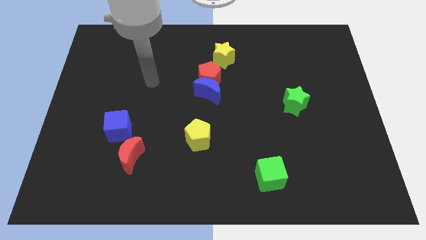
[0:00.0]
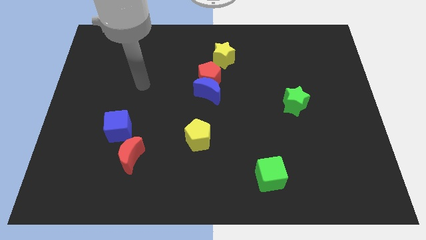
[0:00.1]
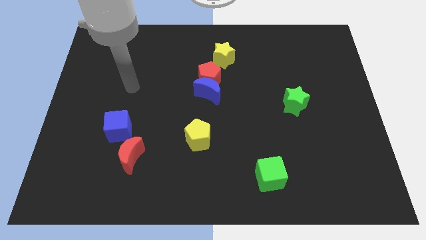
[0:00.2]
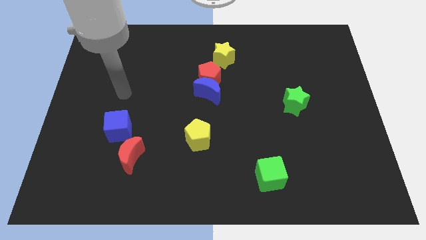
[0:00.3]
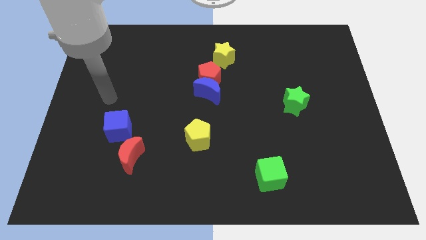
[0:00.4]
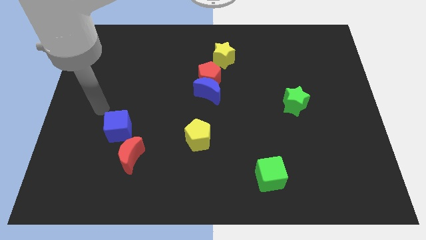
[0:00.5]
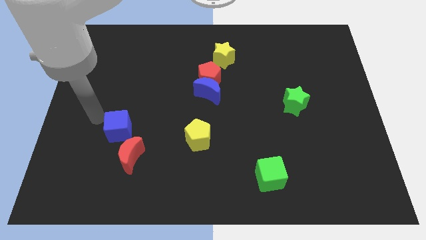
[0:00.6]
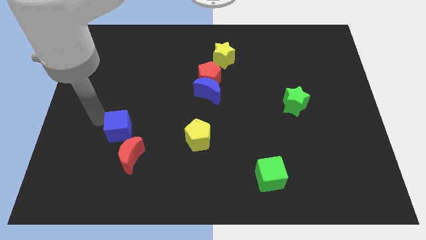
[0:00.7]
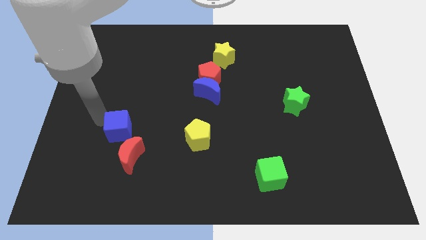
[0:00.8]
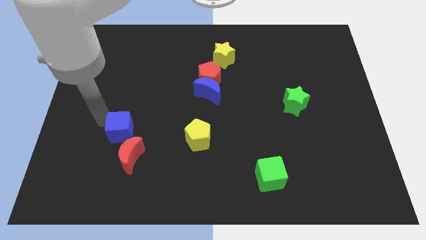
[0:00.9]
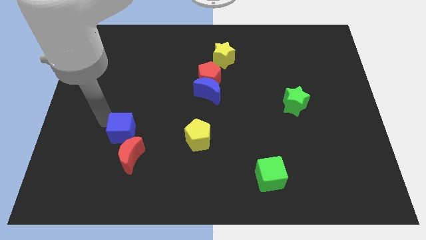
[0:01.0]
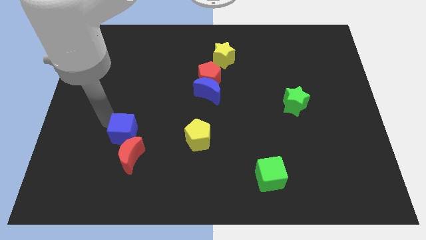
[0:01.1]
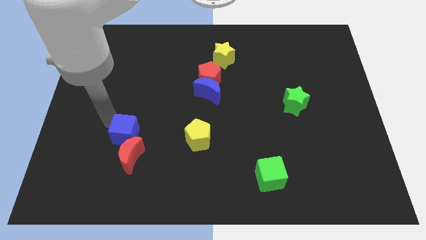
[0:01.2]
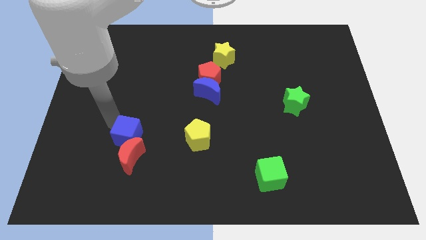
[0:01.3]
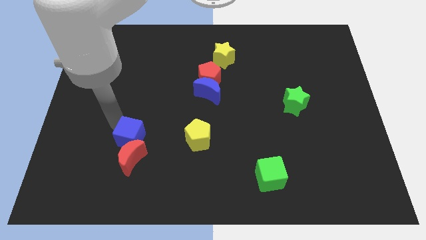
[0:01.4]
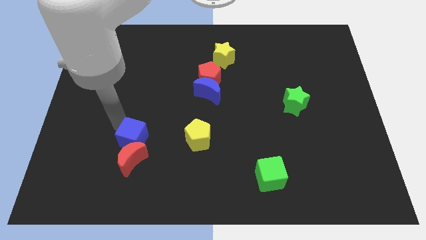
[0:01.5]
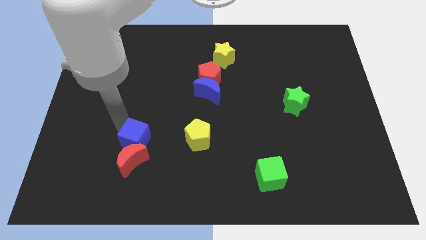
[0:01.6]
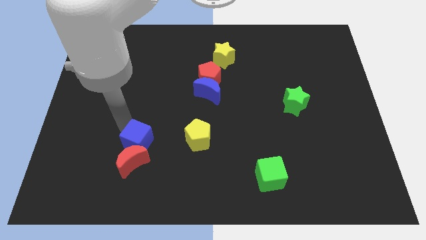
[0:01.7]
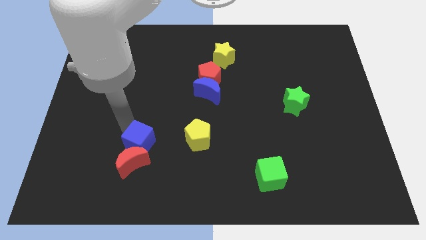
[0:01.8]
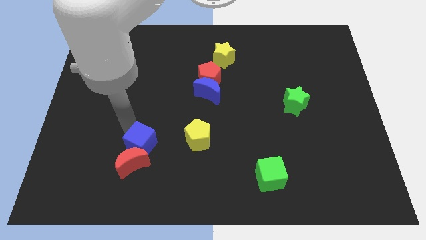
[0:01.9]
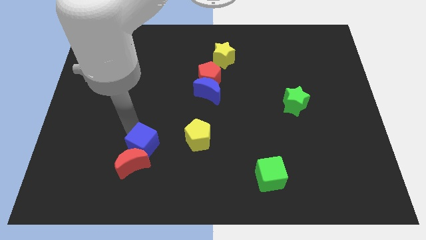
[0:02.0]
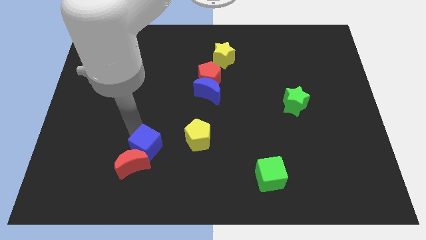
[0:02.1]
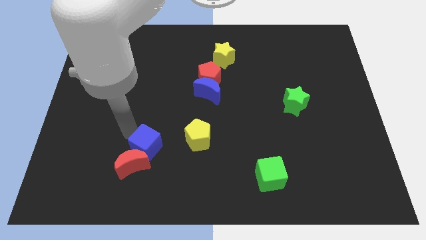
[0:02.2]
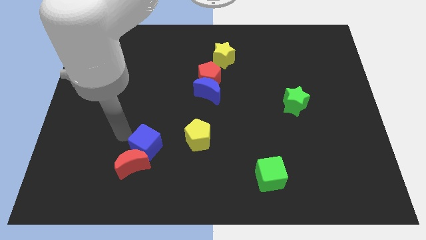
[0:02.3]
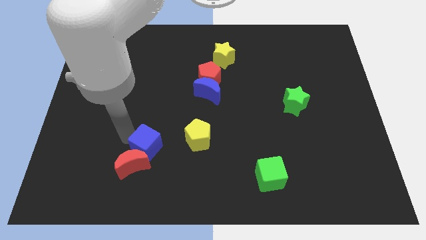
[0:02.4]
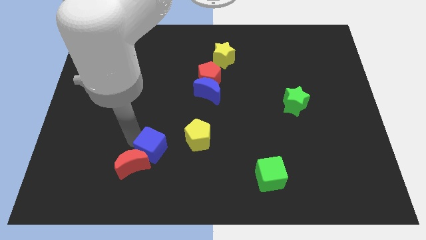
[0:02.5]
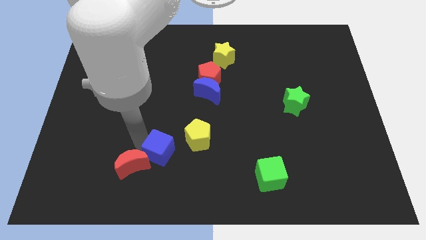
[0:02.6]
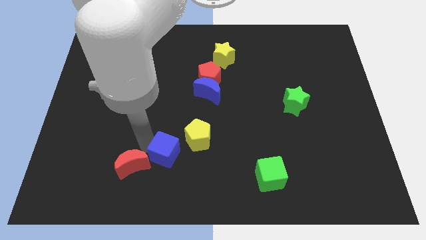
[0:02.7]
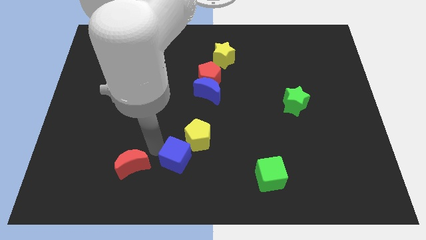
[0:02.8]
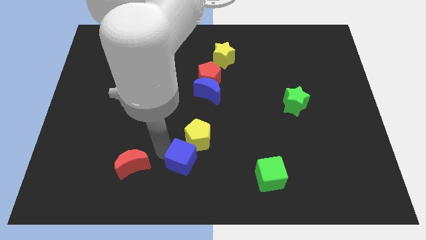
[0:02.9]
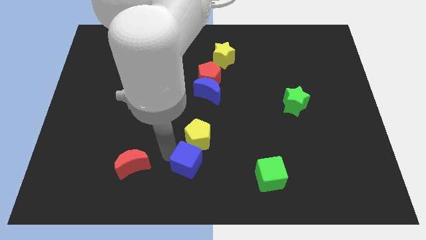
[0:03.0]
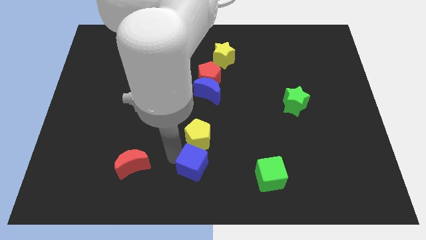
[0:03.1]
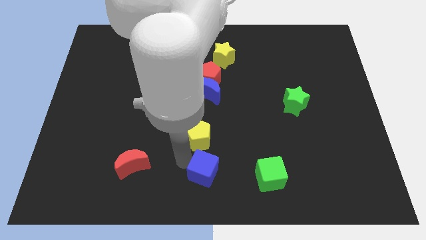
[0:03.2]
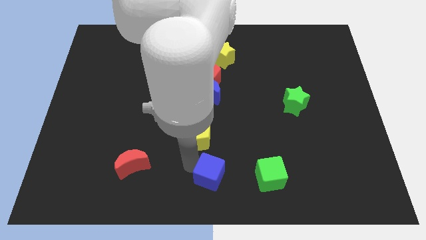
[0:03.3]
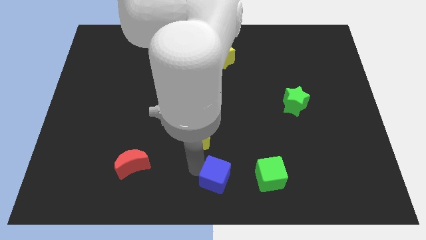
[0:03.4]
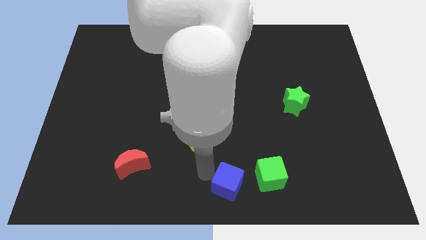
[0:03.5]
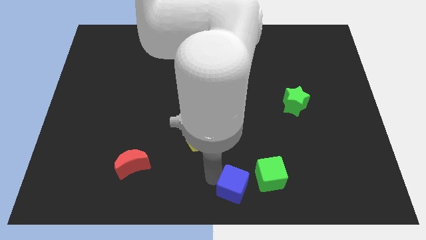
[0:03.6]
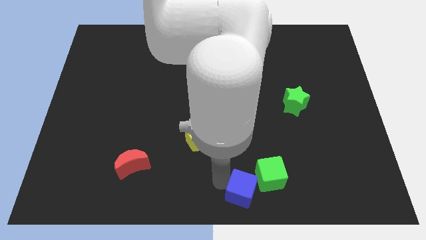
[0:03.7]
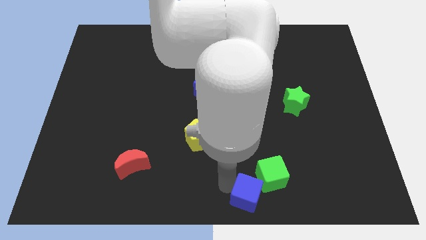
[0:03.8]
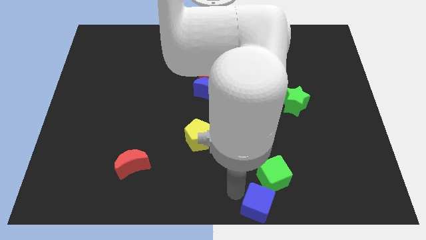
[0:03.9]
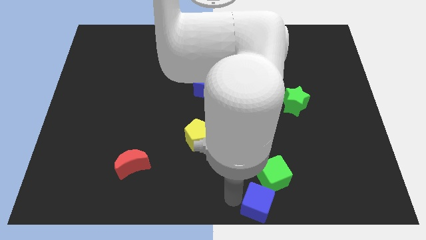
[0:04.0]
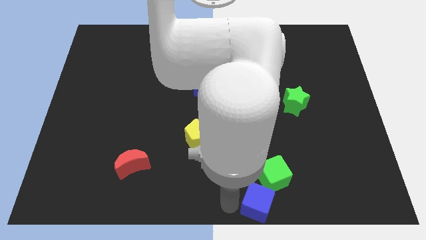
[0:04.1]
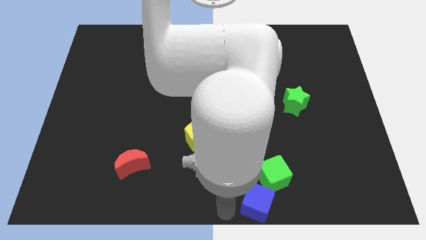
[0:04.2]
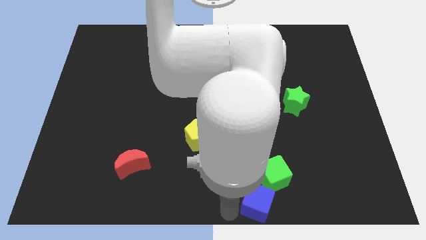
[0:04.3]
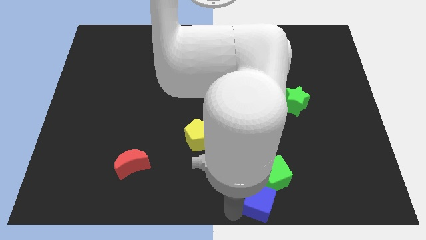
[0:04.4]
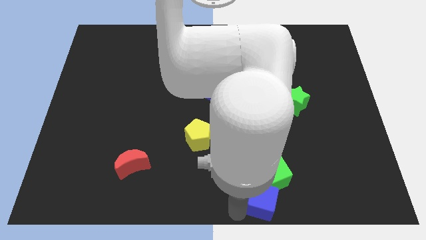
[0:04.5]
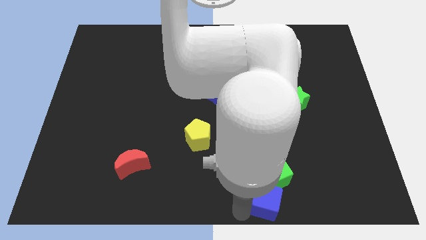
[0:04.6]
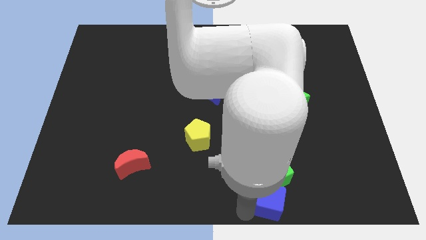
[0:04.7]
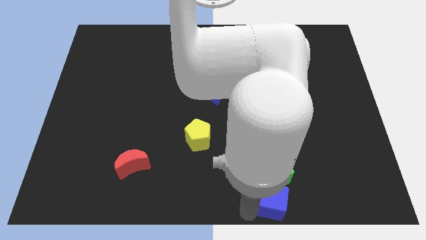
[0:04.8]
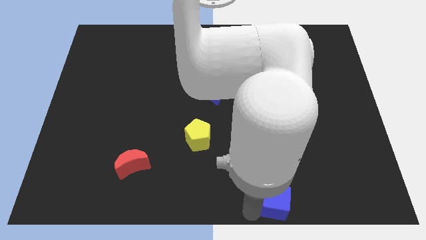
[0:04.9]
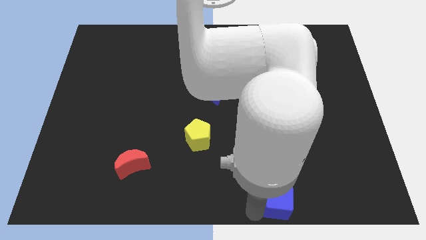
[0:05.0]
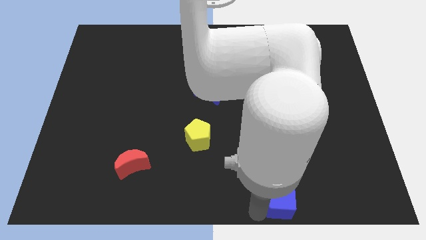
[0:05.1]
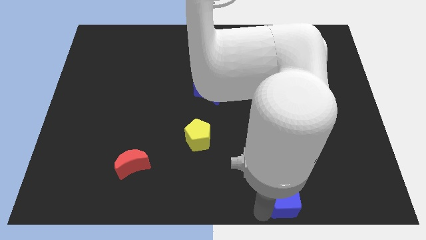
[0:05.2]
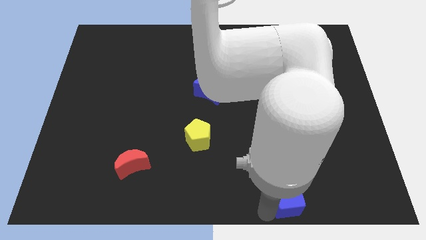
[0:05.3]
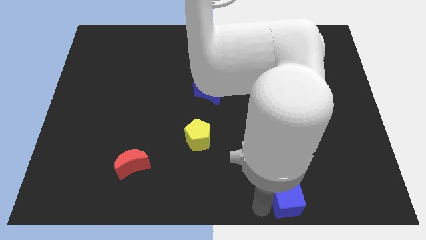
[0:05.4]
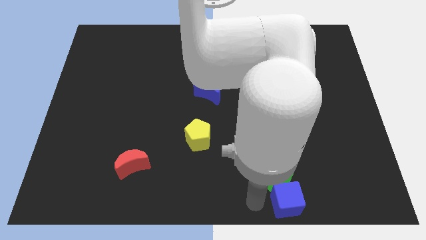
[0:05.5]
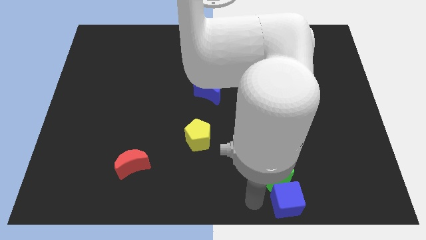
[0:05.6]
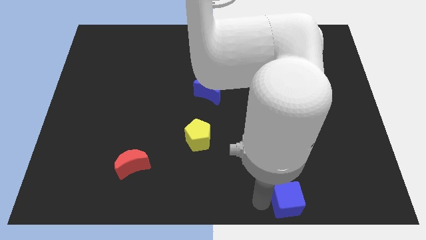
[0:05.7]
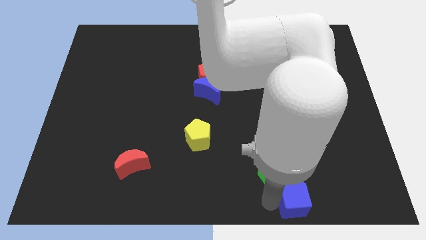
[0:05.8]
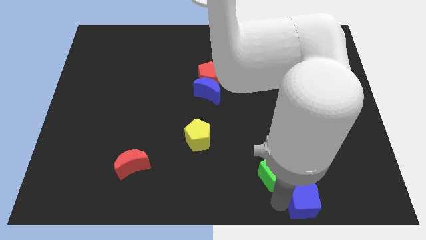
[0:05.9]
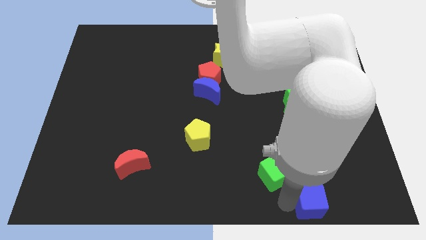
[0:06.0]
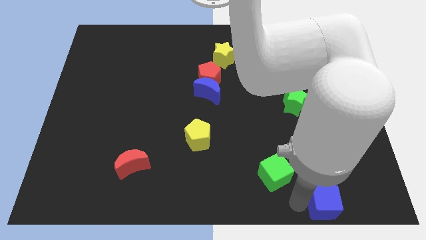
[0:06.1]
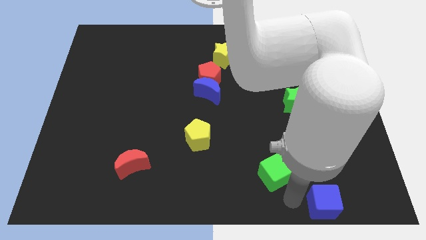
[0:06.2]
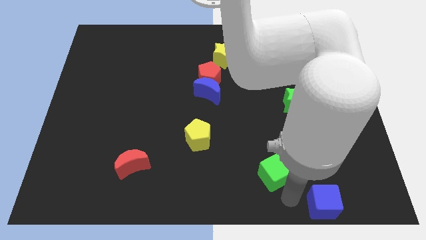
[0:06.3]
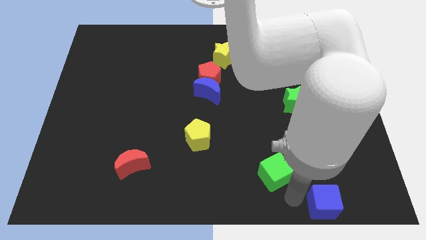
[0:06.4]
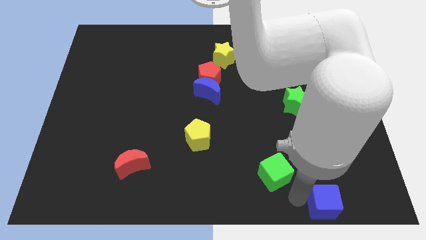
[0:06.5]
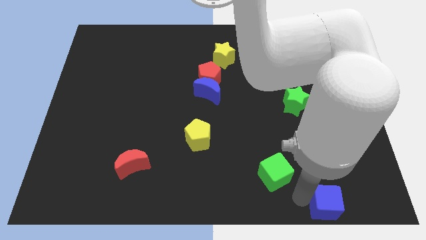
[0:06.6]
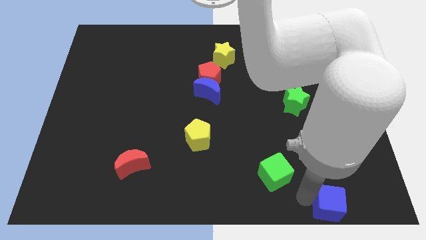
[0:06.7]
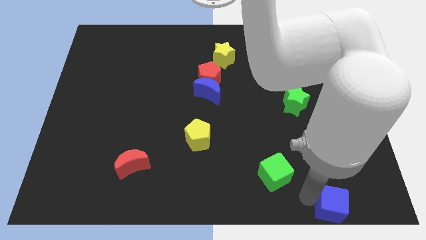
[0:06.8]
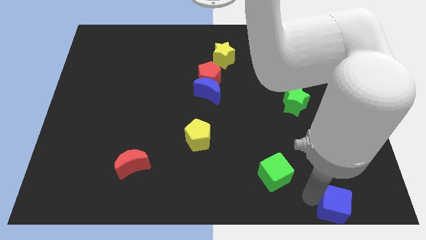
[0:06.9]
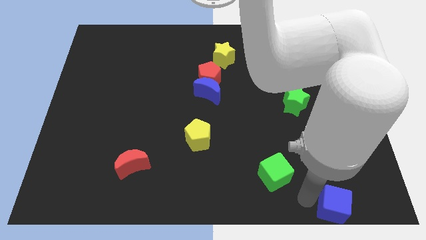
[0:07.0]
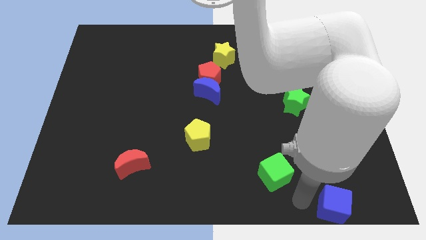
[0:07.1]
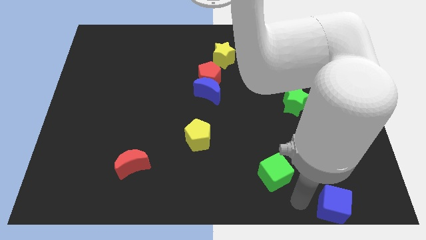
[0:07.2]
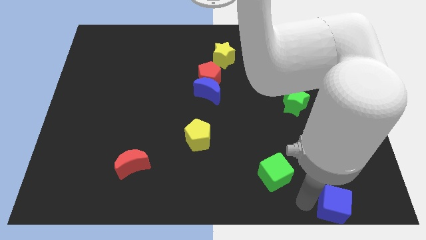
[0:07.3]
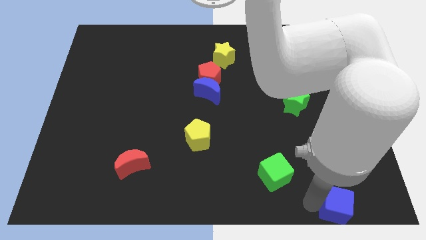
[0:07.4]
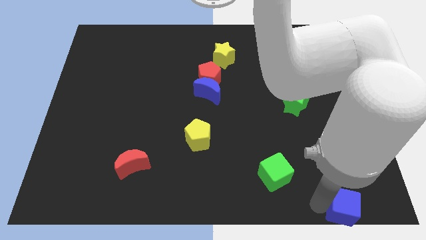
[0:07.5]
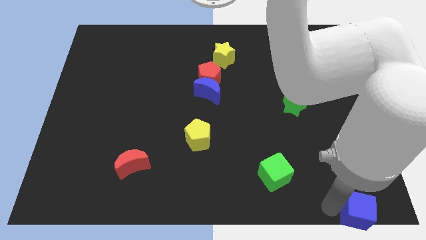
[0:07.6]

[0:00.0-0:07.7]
push the blue cube to the bottom right
